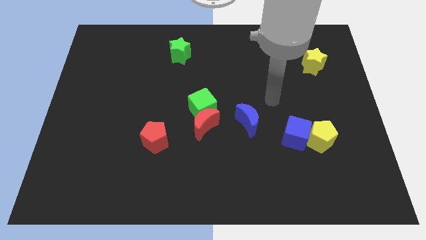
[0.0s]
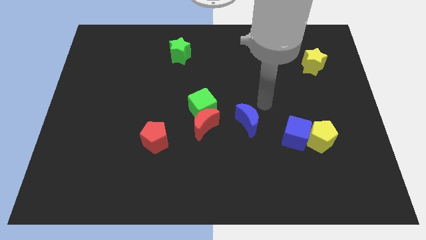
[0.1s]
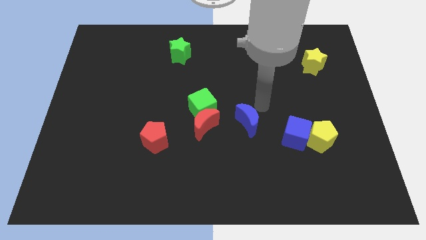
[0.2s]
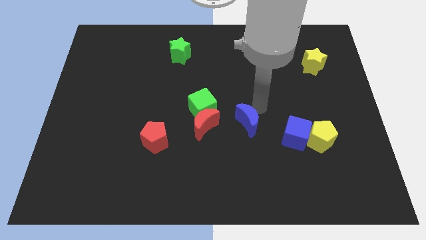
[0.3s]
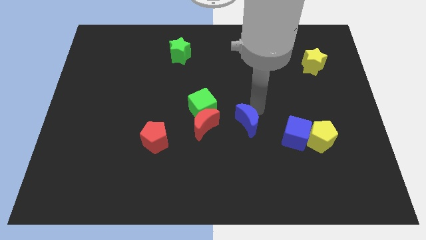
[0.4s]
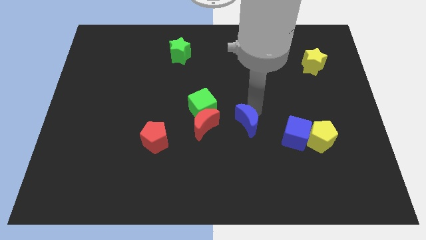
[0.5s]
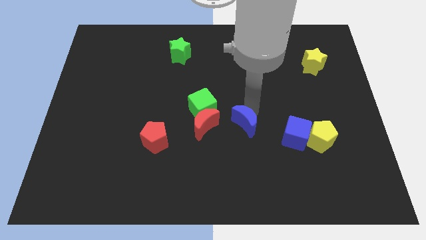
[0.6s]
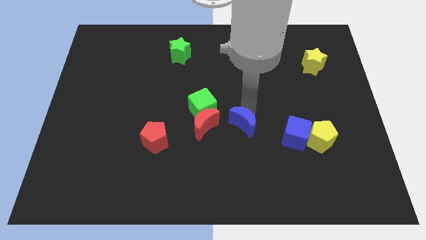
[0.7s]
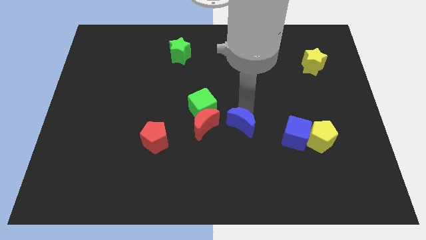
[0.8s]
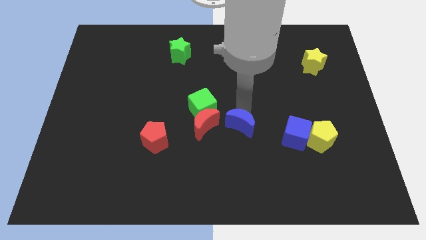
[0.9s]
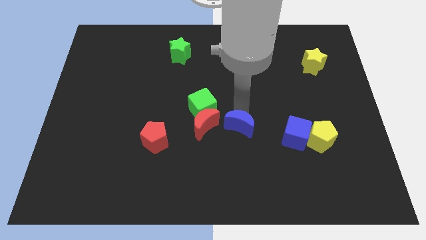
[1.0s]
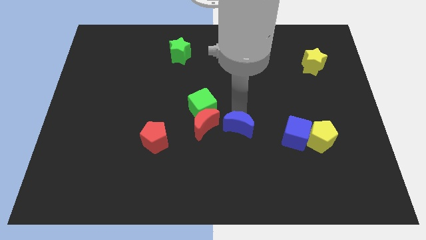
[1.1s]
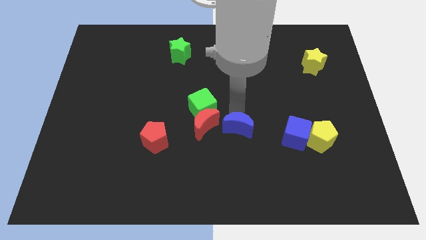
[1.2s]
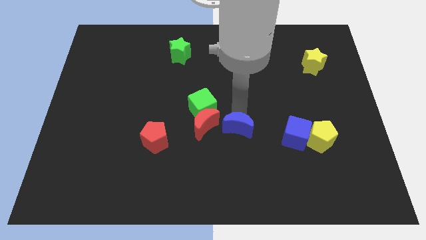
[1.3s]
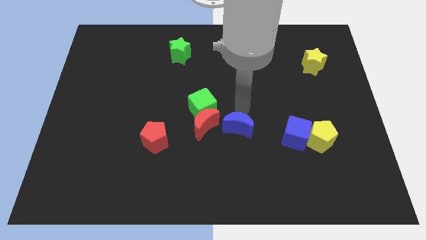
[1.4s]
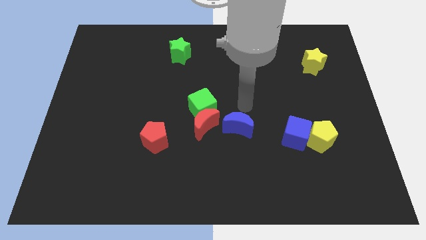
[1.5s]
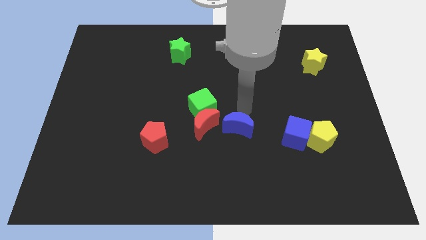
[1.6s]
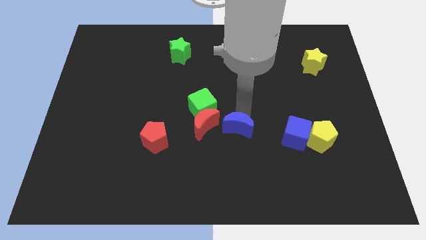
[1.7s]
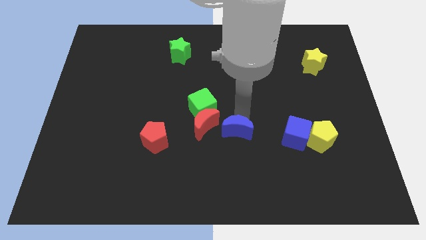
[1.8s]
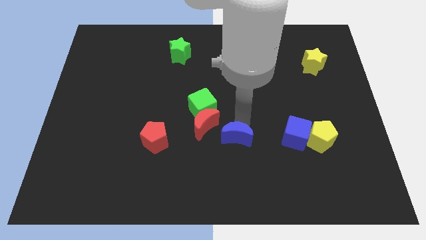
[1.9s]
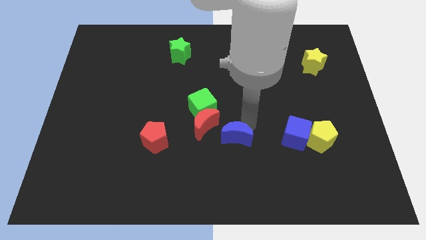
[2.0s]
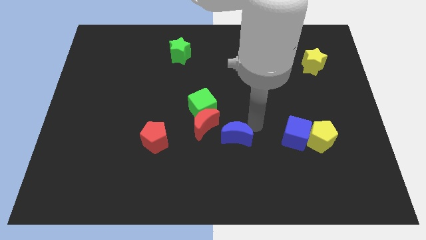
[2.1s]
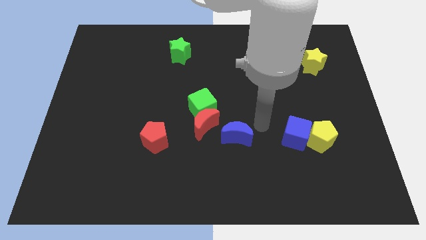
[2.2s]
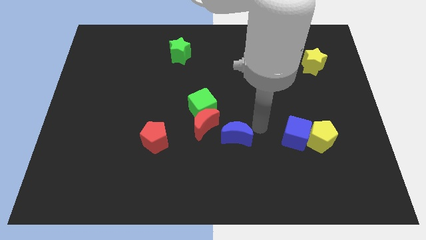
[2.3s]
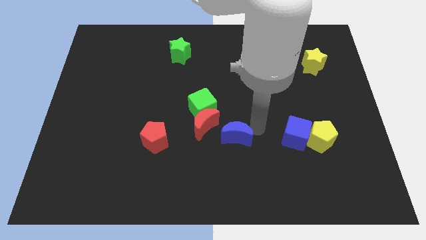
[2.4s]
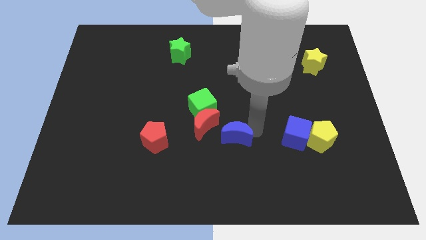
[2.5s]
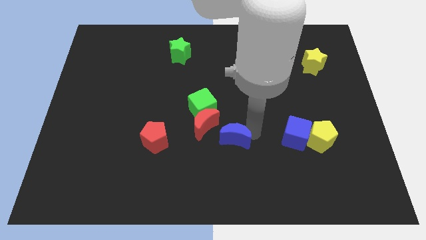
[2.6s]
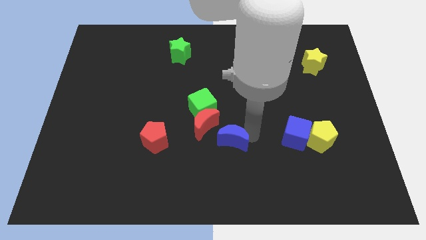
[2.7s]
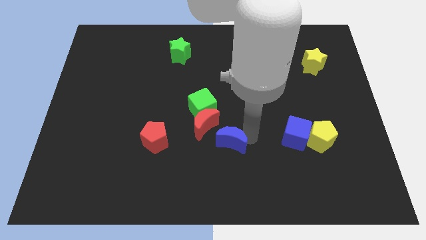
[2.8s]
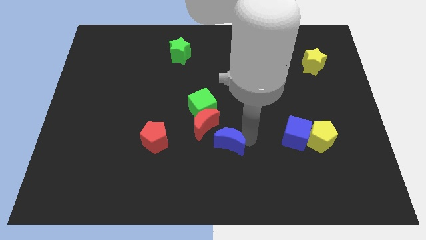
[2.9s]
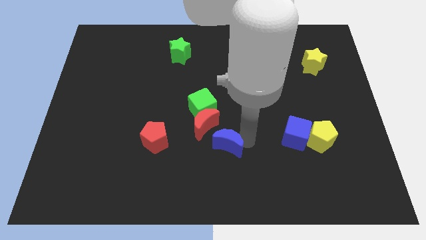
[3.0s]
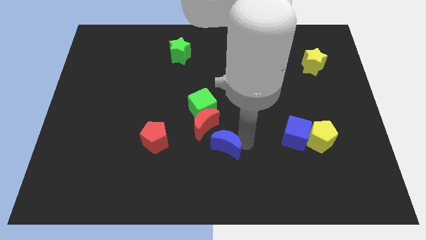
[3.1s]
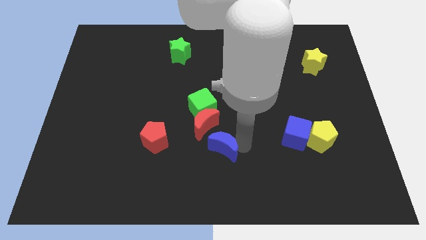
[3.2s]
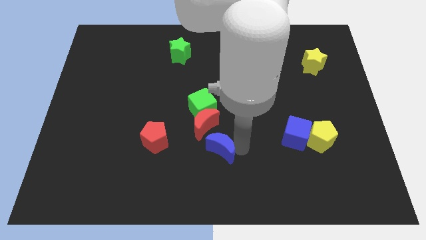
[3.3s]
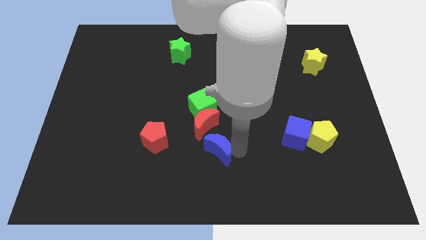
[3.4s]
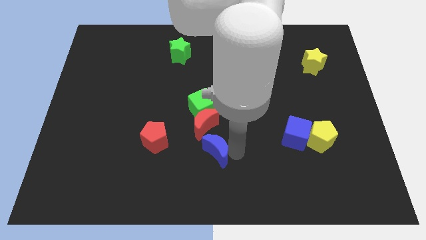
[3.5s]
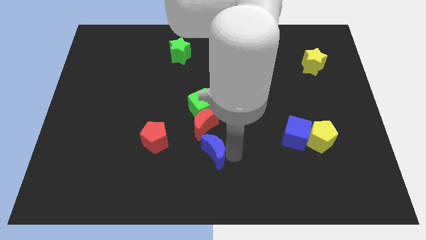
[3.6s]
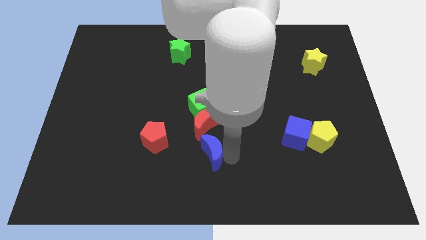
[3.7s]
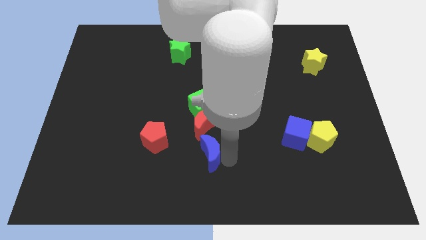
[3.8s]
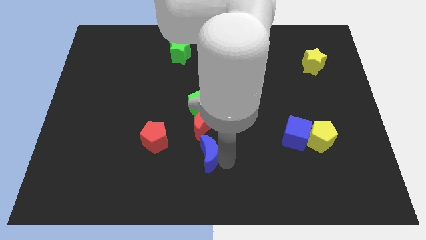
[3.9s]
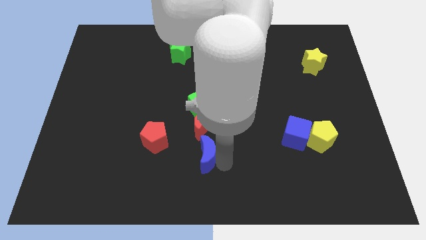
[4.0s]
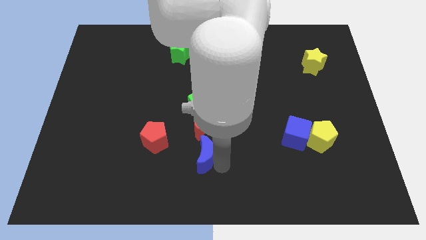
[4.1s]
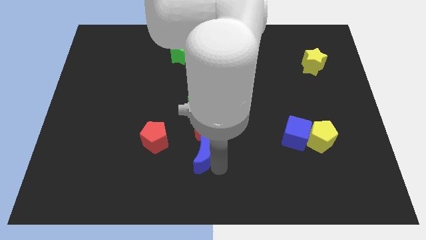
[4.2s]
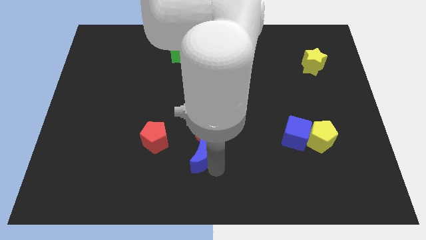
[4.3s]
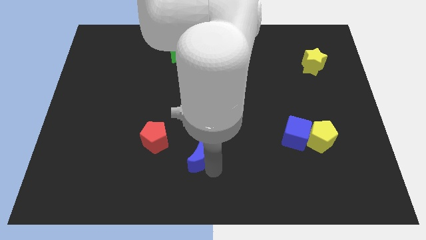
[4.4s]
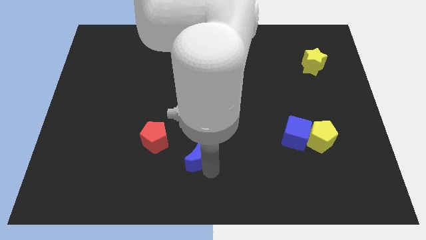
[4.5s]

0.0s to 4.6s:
slightly slide the blue moon to the left

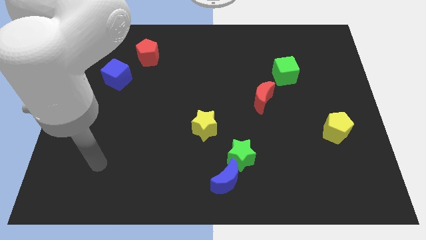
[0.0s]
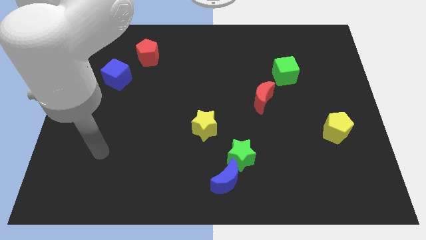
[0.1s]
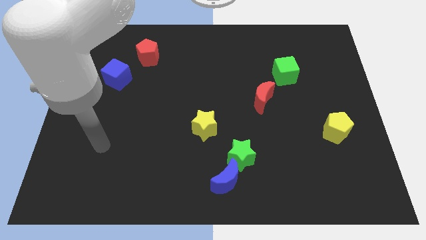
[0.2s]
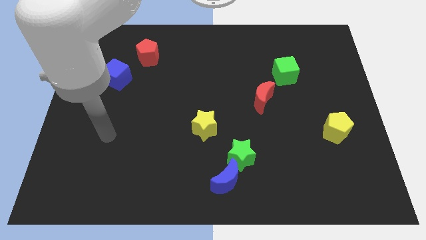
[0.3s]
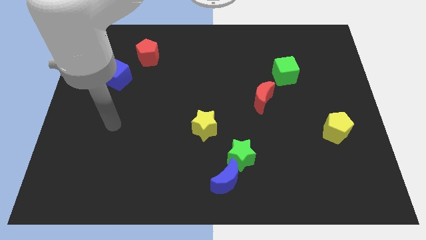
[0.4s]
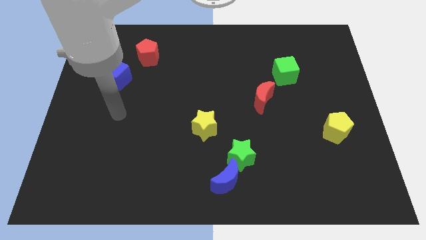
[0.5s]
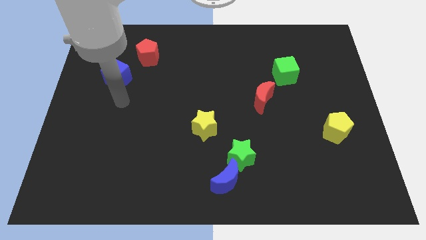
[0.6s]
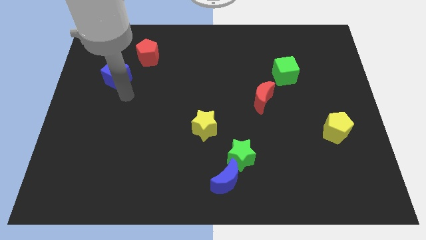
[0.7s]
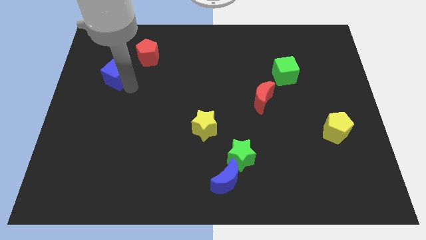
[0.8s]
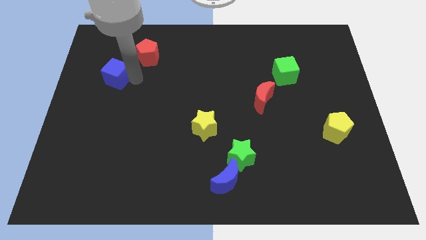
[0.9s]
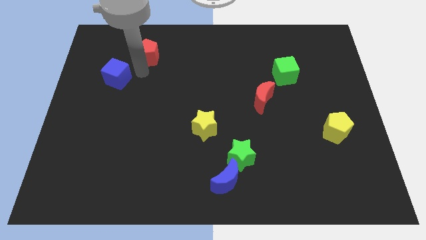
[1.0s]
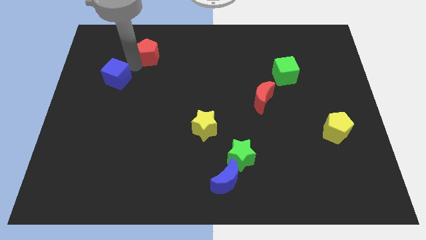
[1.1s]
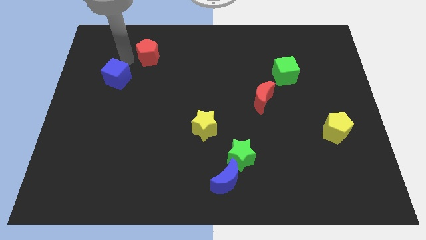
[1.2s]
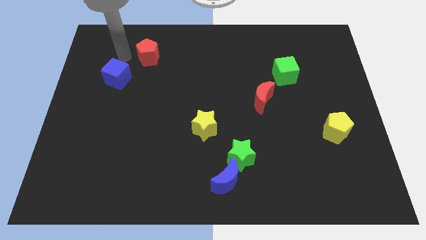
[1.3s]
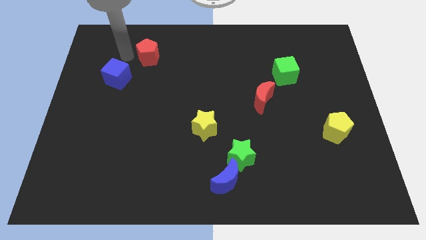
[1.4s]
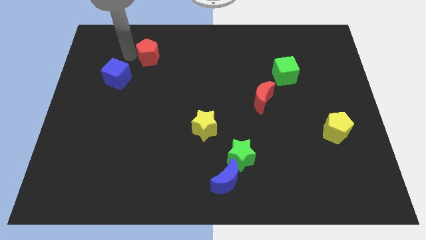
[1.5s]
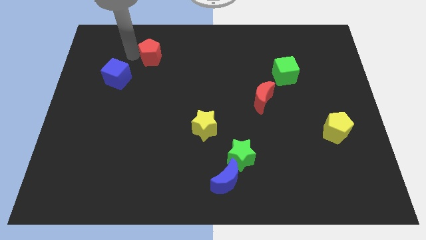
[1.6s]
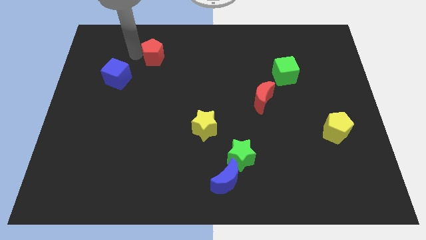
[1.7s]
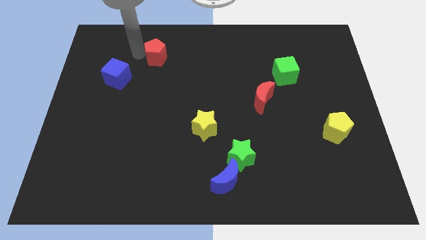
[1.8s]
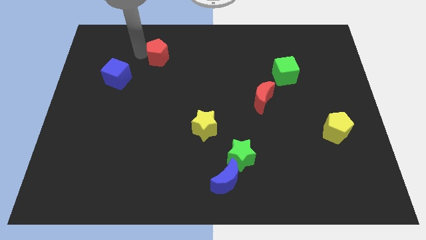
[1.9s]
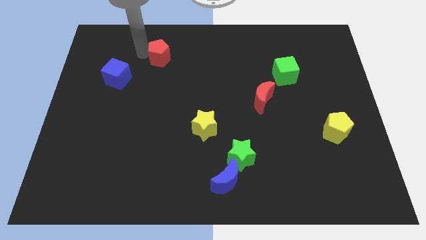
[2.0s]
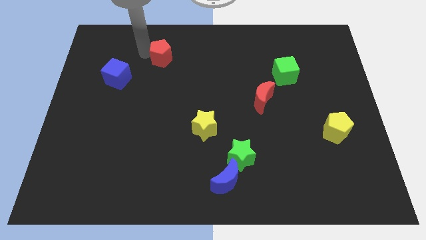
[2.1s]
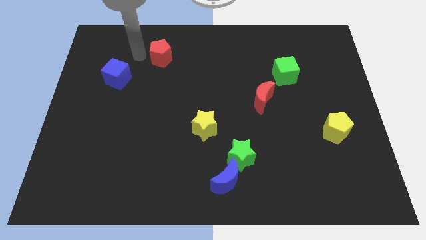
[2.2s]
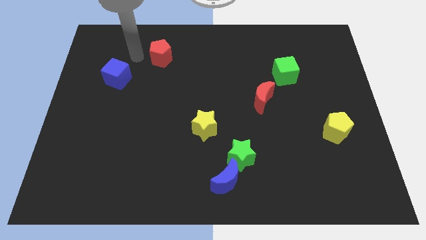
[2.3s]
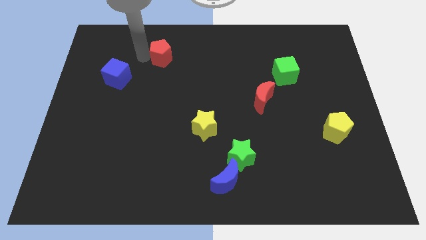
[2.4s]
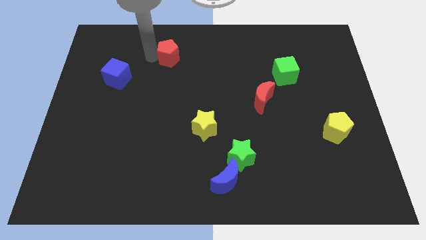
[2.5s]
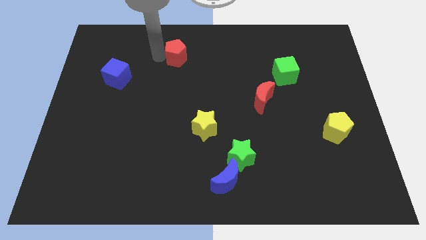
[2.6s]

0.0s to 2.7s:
slide the red pentagon somewhat right

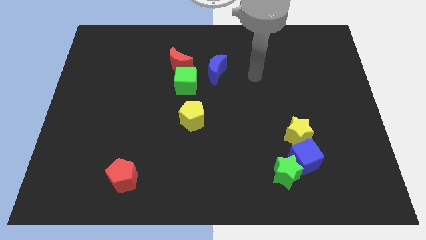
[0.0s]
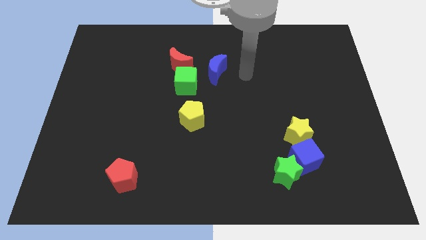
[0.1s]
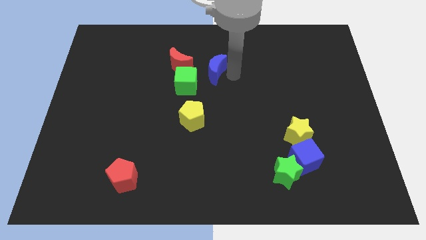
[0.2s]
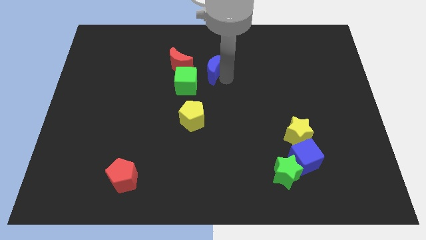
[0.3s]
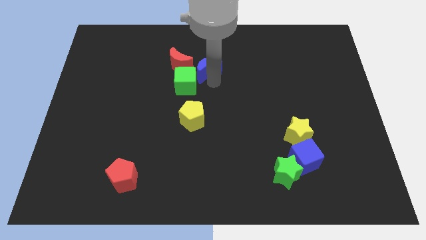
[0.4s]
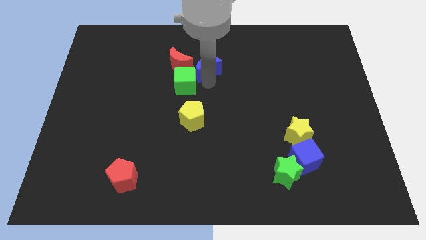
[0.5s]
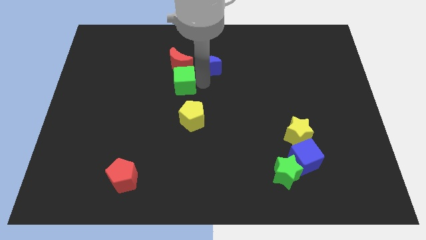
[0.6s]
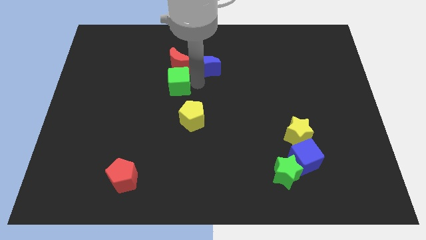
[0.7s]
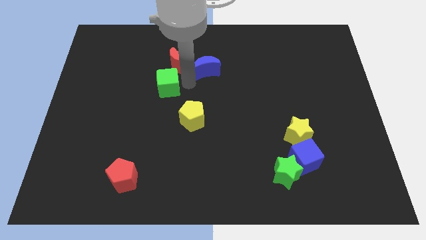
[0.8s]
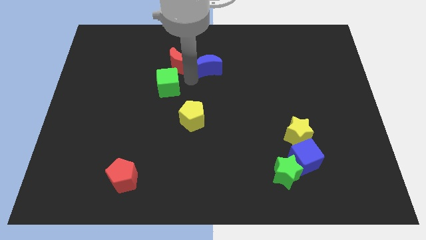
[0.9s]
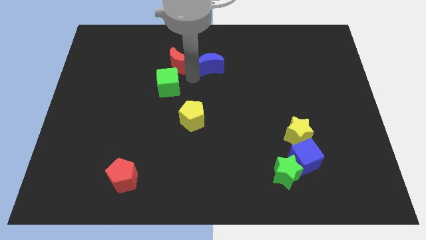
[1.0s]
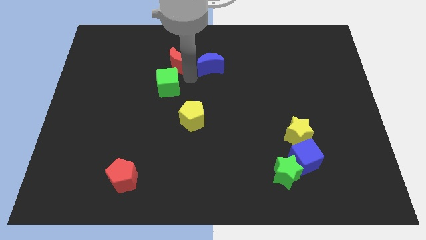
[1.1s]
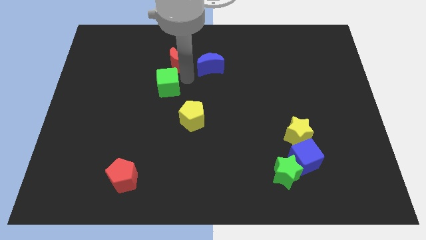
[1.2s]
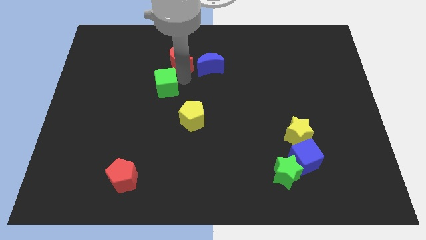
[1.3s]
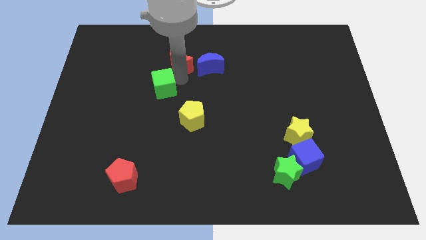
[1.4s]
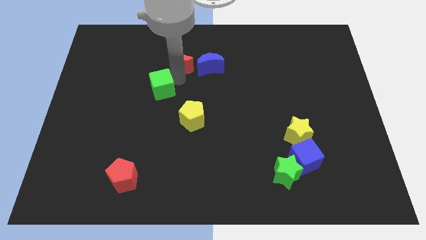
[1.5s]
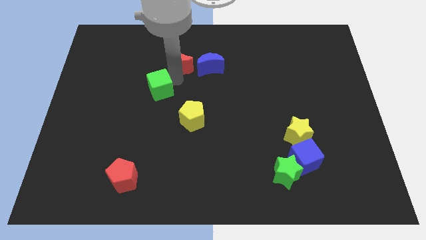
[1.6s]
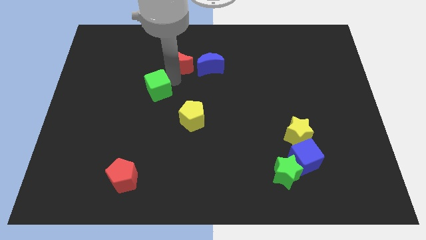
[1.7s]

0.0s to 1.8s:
slide the green cube to the left a little
